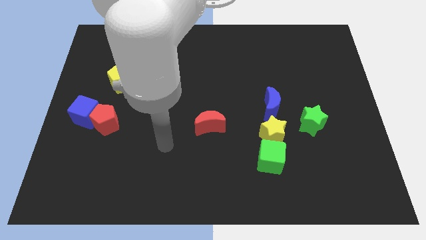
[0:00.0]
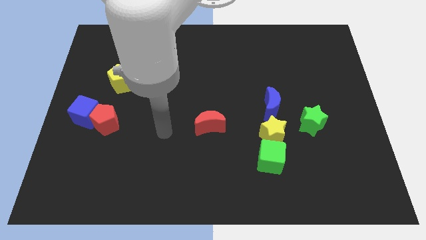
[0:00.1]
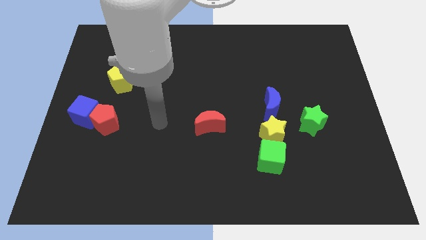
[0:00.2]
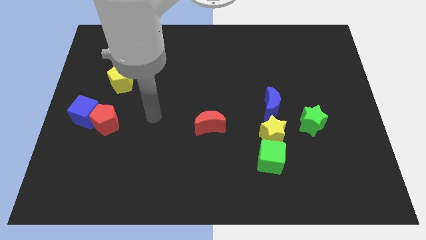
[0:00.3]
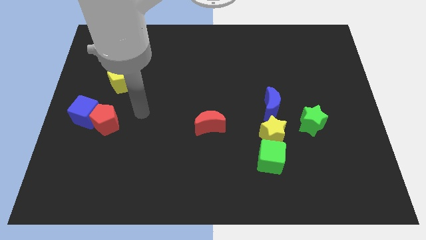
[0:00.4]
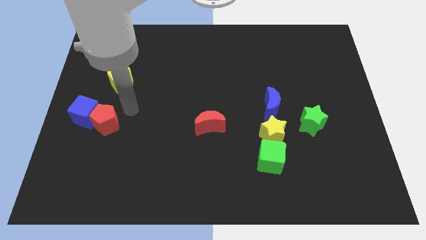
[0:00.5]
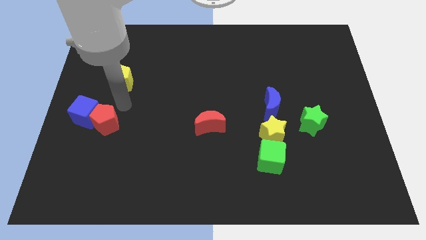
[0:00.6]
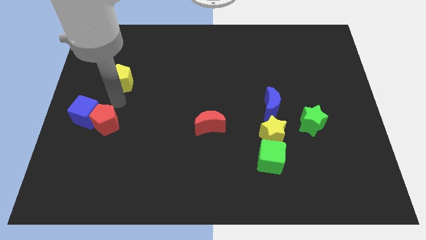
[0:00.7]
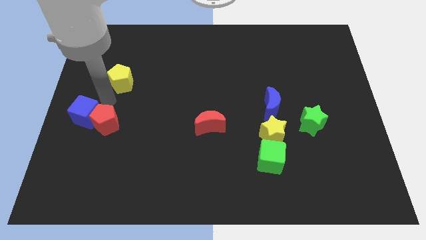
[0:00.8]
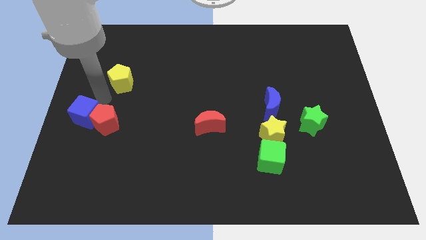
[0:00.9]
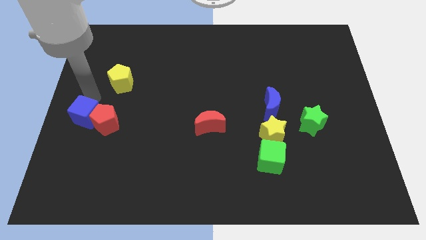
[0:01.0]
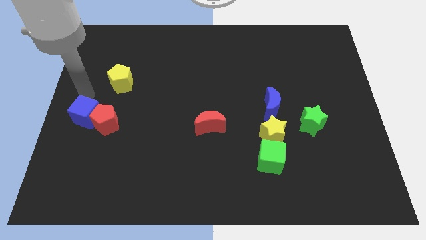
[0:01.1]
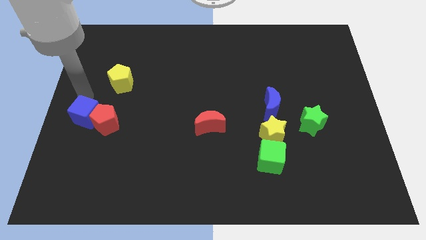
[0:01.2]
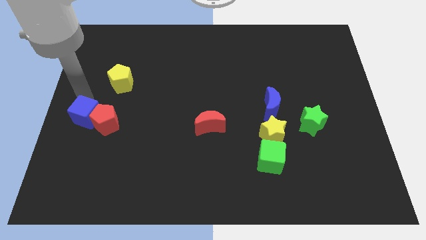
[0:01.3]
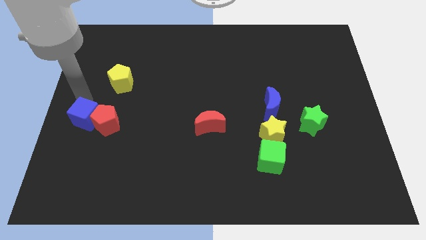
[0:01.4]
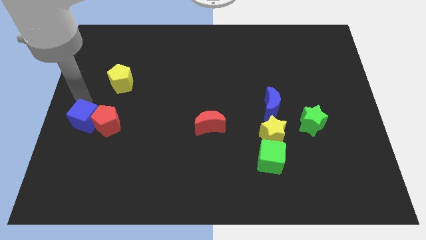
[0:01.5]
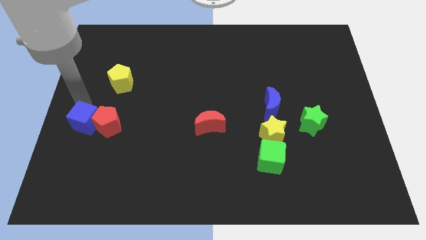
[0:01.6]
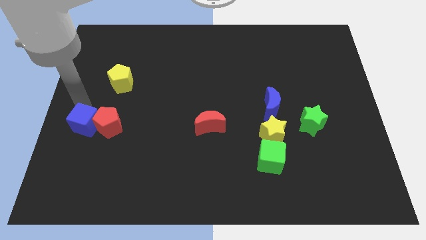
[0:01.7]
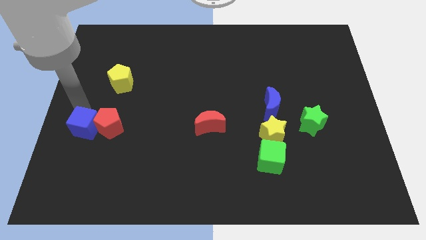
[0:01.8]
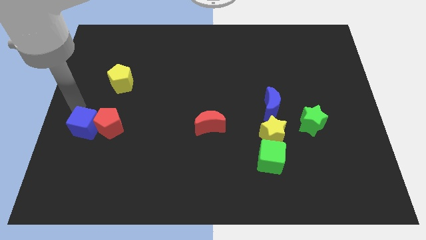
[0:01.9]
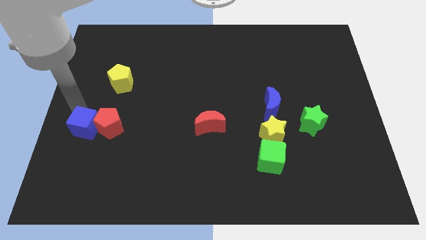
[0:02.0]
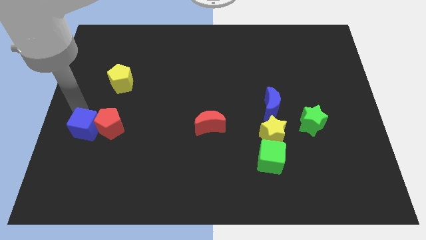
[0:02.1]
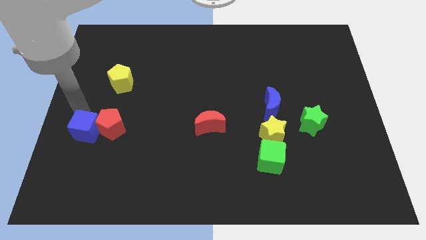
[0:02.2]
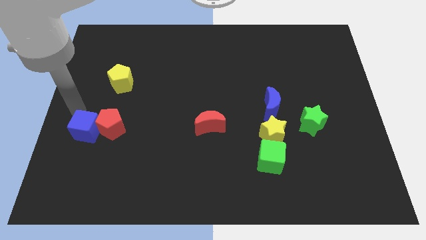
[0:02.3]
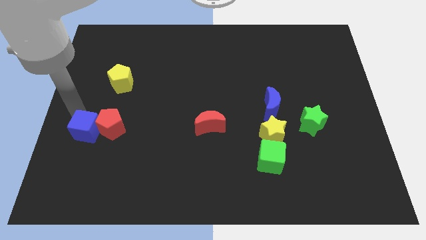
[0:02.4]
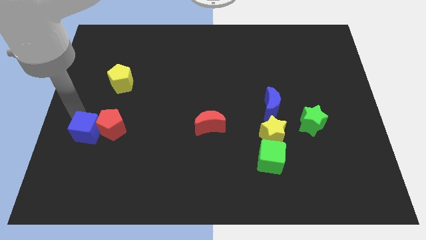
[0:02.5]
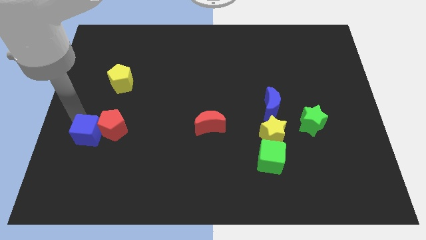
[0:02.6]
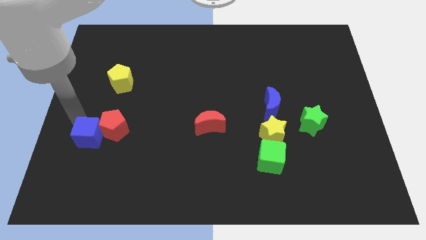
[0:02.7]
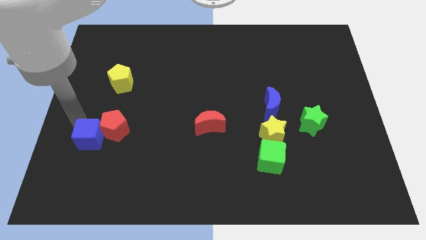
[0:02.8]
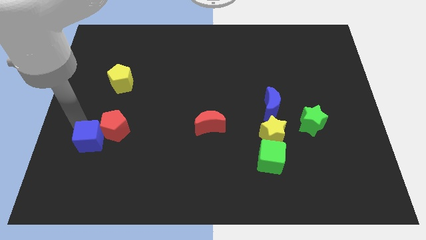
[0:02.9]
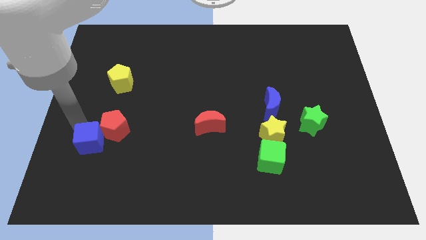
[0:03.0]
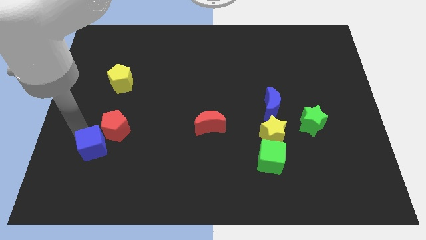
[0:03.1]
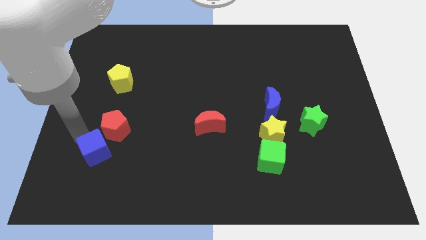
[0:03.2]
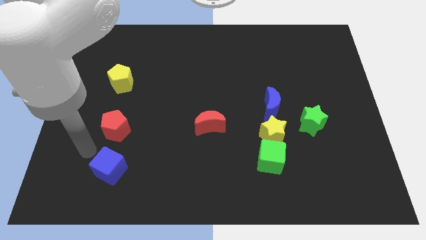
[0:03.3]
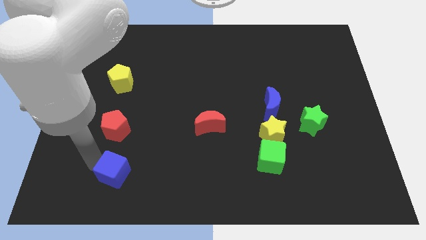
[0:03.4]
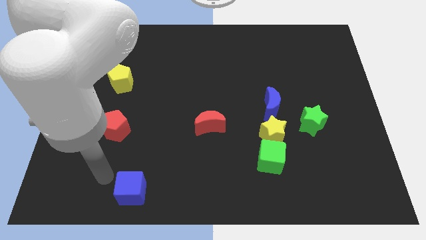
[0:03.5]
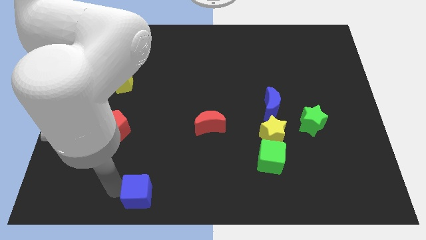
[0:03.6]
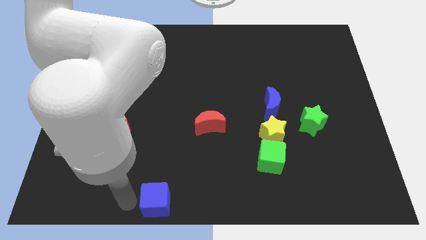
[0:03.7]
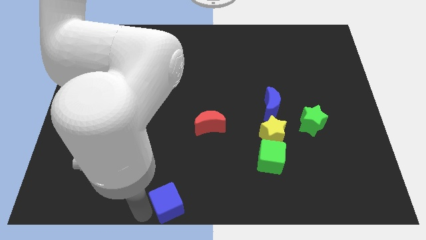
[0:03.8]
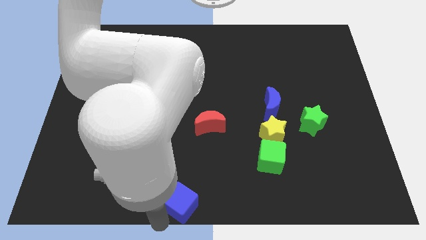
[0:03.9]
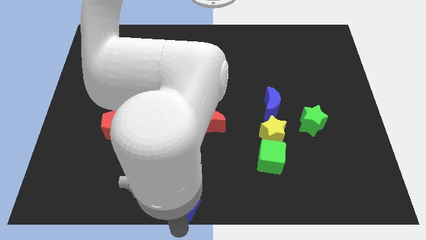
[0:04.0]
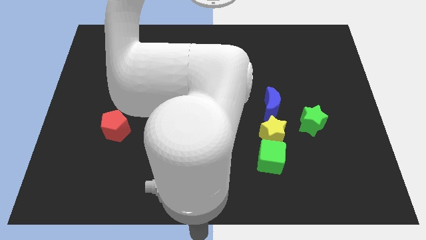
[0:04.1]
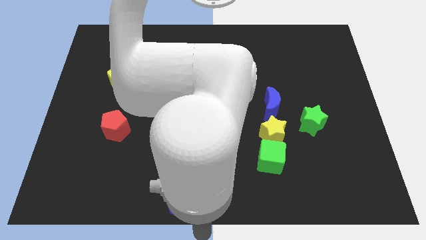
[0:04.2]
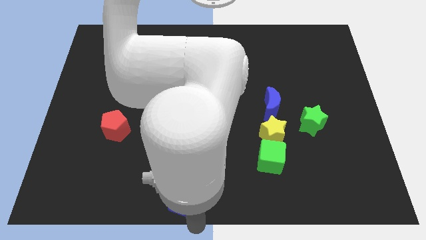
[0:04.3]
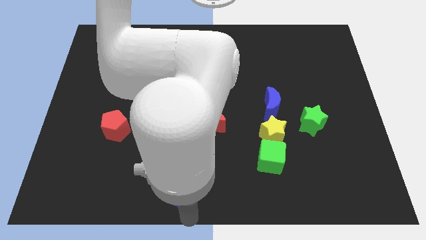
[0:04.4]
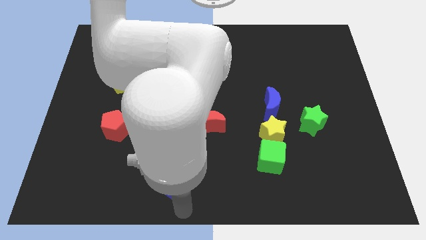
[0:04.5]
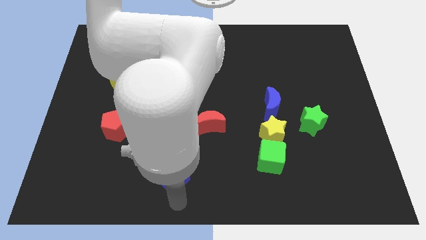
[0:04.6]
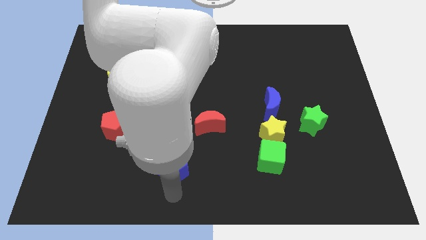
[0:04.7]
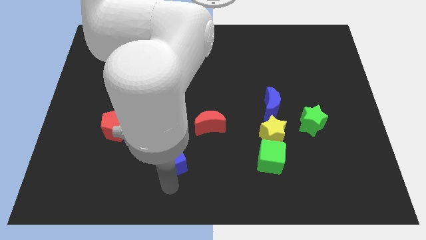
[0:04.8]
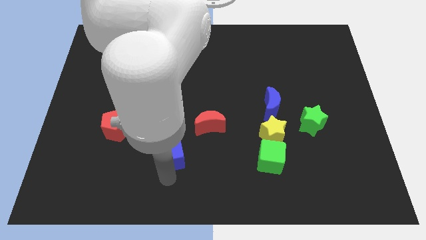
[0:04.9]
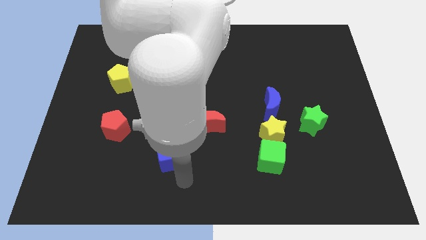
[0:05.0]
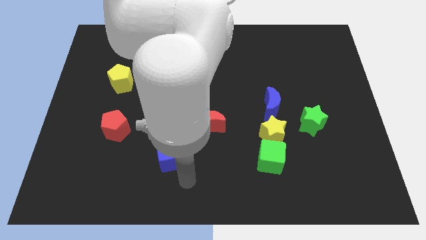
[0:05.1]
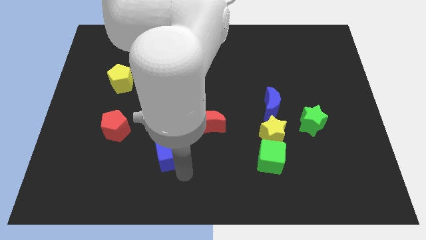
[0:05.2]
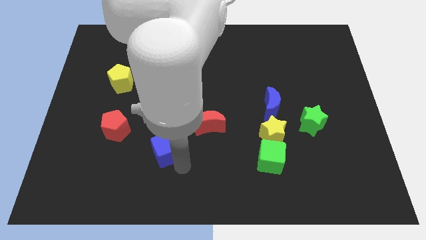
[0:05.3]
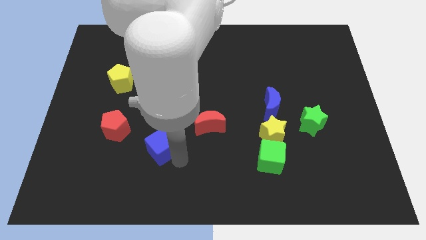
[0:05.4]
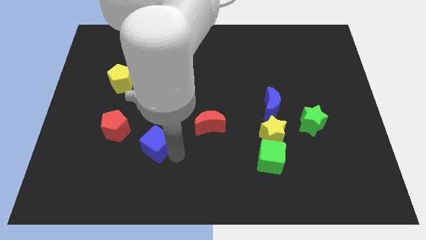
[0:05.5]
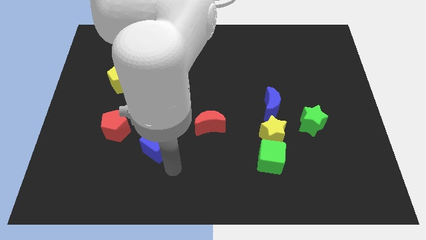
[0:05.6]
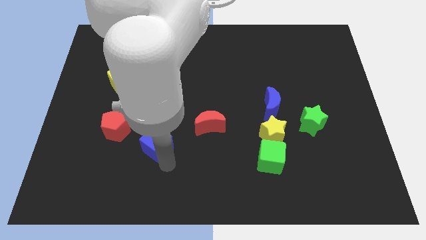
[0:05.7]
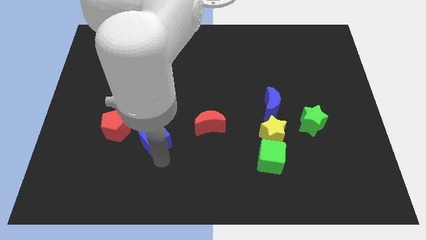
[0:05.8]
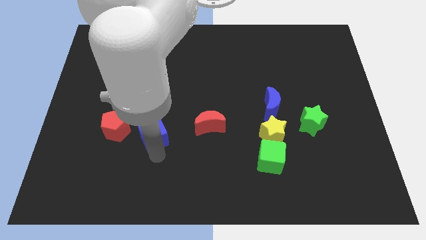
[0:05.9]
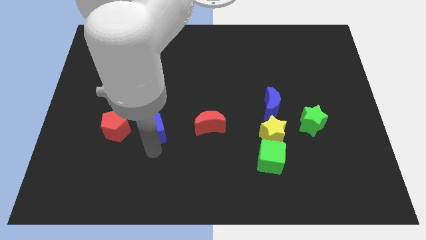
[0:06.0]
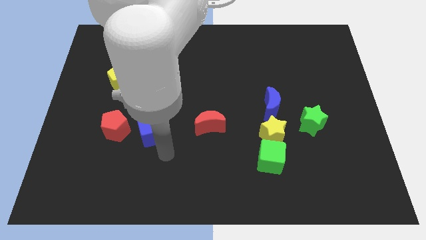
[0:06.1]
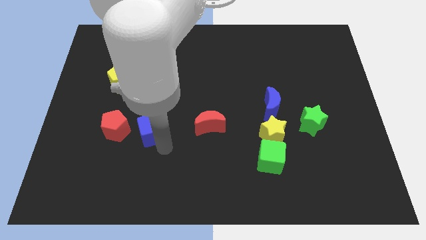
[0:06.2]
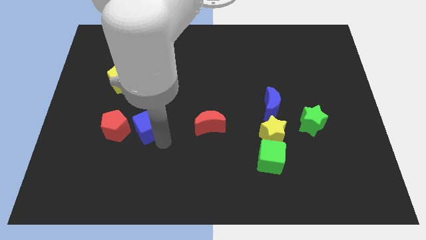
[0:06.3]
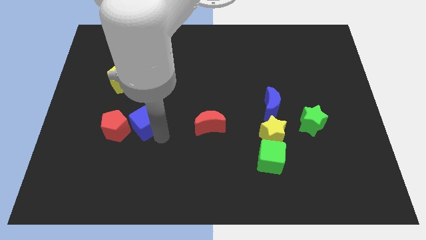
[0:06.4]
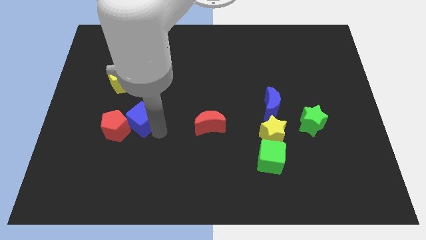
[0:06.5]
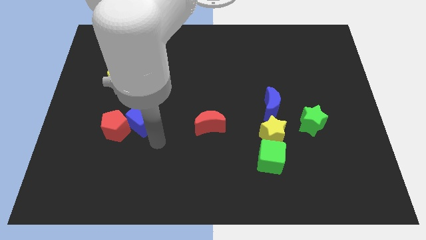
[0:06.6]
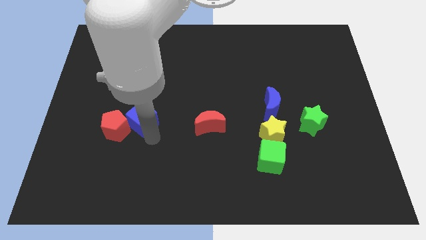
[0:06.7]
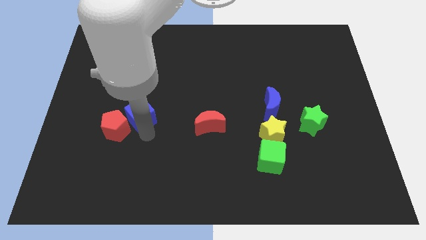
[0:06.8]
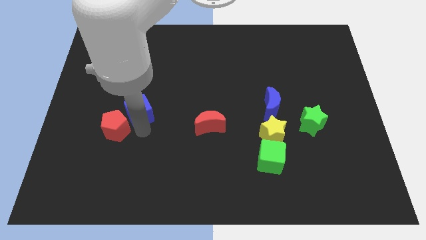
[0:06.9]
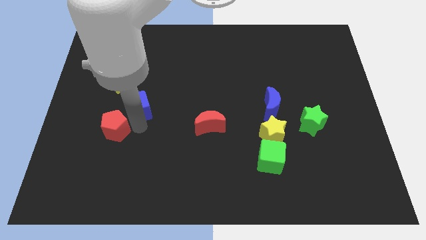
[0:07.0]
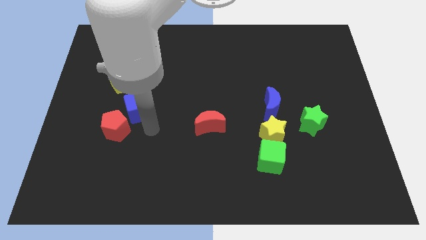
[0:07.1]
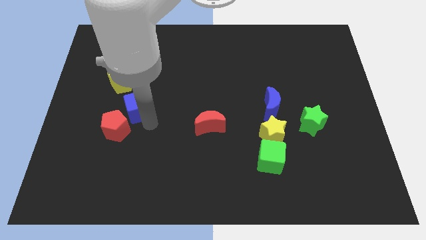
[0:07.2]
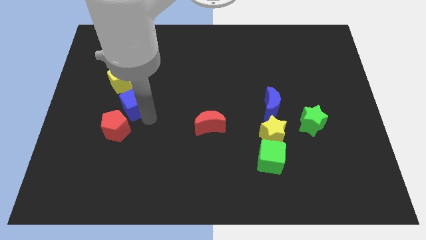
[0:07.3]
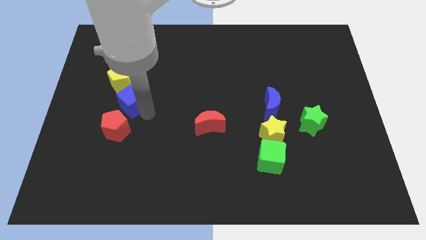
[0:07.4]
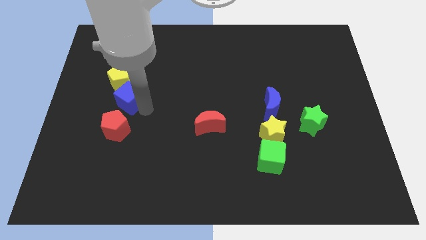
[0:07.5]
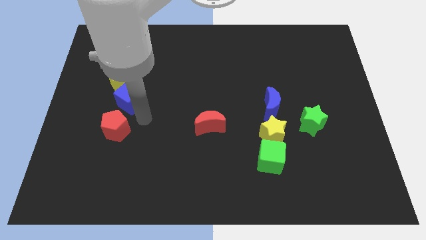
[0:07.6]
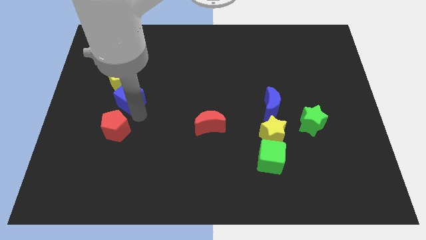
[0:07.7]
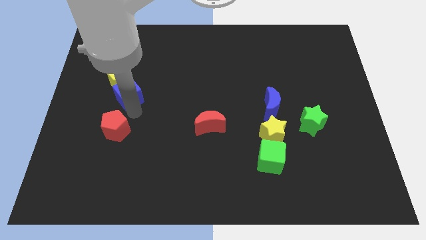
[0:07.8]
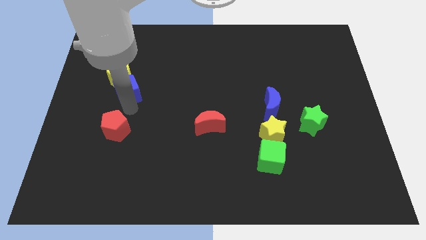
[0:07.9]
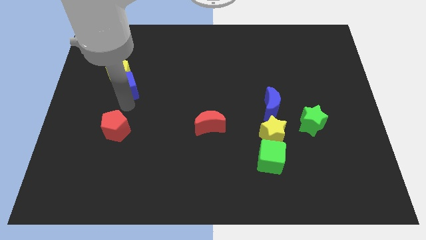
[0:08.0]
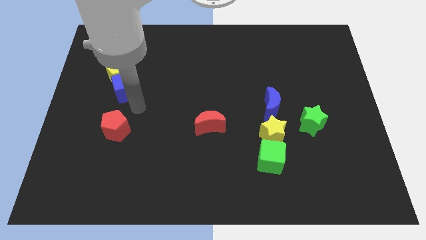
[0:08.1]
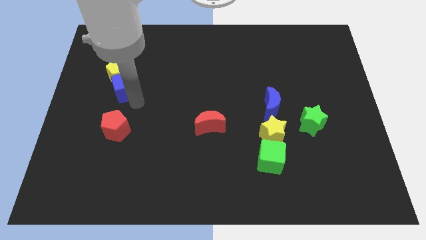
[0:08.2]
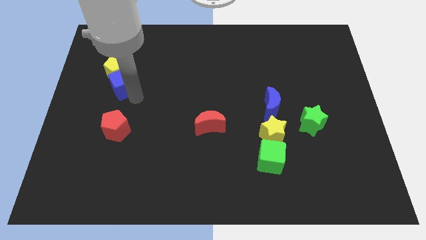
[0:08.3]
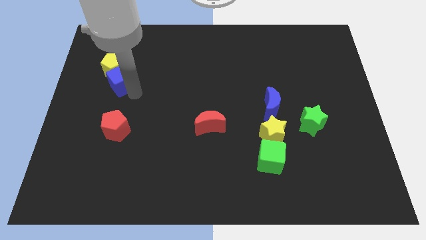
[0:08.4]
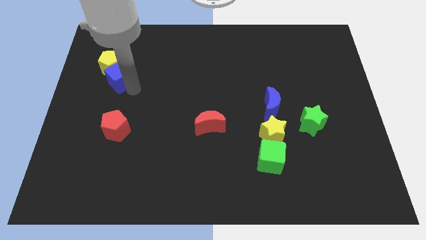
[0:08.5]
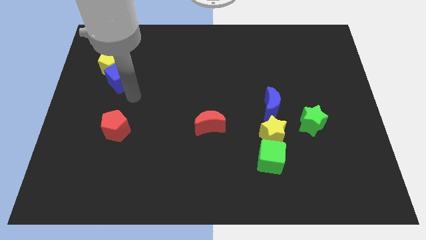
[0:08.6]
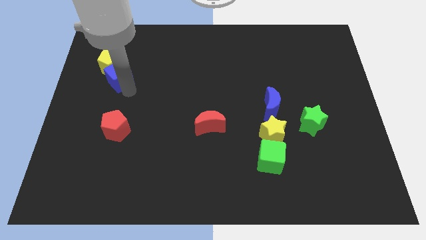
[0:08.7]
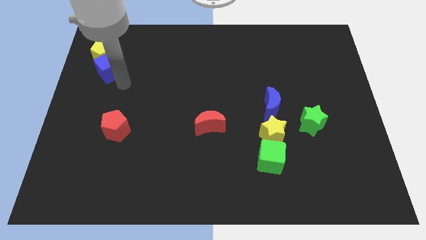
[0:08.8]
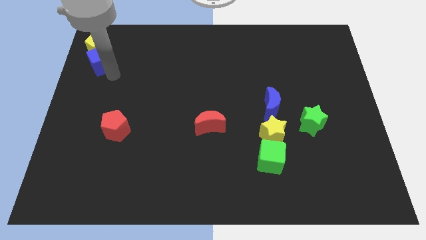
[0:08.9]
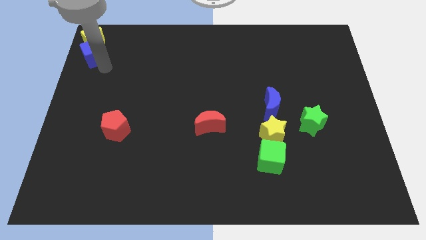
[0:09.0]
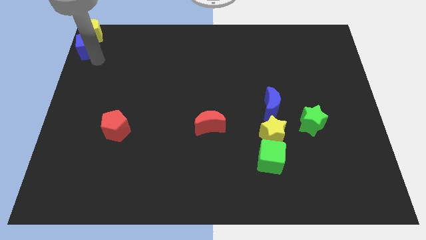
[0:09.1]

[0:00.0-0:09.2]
slide the blue cube to the top left of the board
